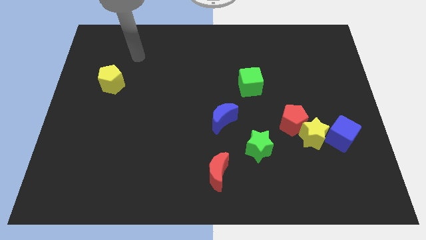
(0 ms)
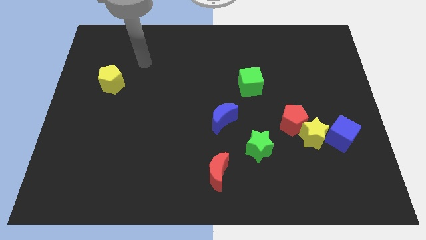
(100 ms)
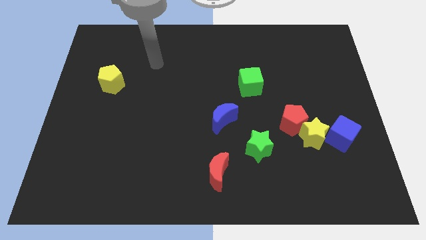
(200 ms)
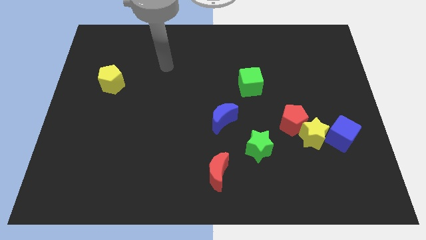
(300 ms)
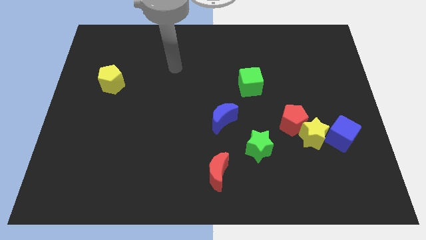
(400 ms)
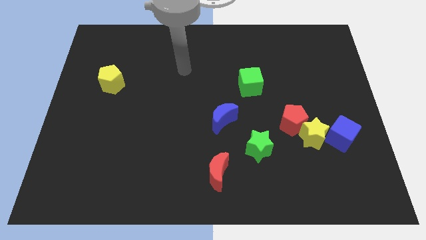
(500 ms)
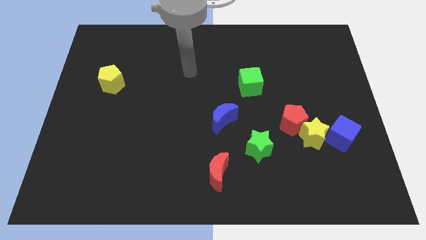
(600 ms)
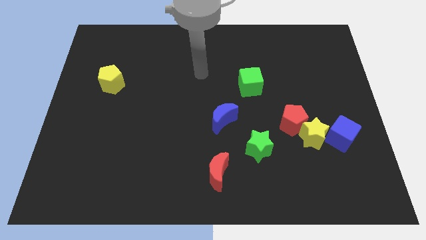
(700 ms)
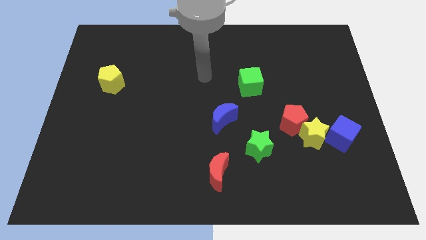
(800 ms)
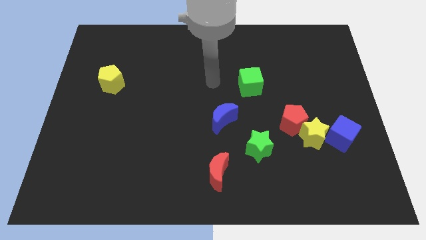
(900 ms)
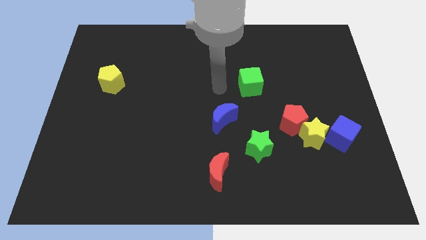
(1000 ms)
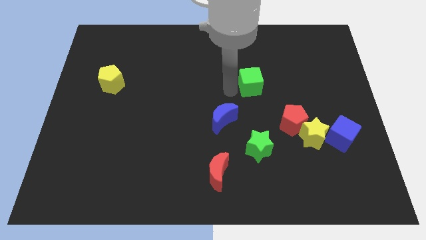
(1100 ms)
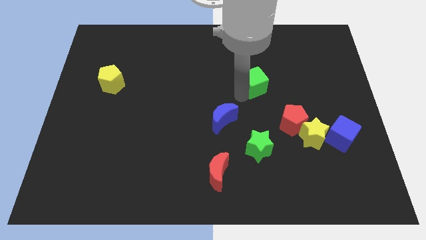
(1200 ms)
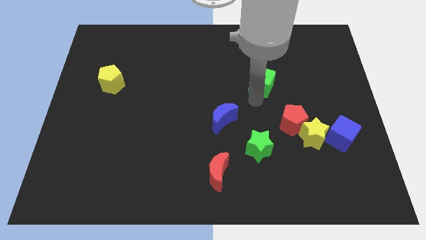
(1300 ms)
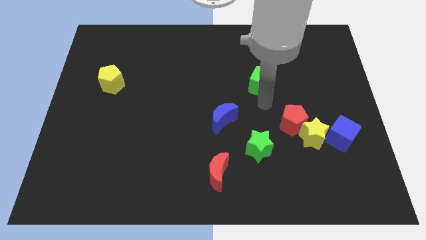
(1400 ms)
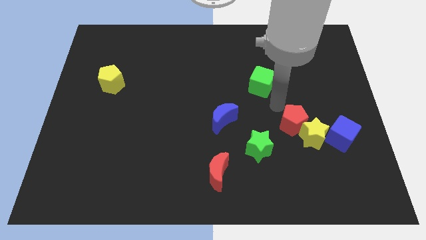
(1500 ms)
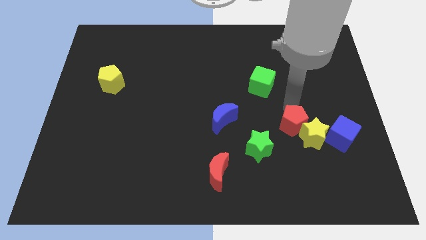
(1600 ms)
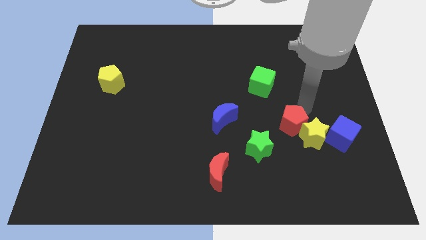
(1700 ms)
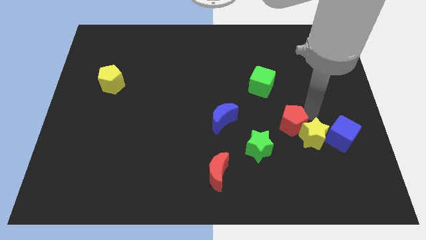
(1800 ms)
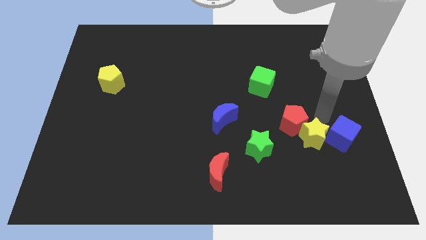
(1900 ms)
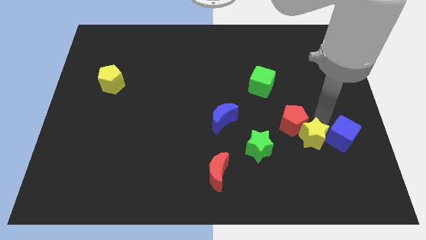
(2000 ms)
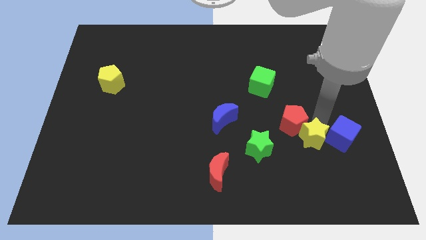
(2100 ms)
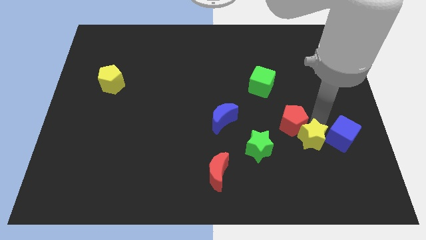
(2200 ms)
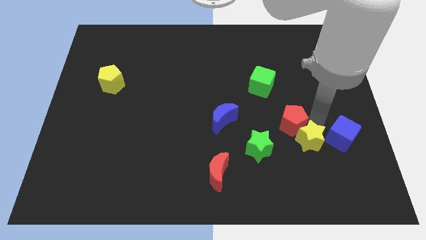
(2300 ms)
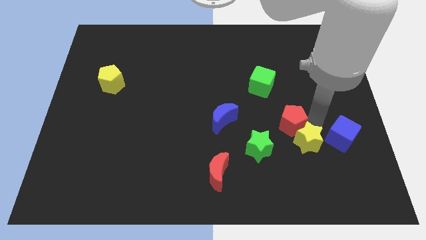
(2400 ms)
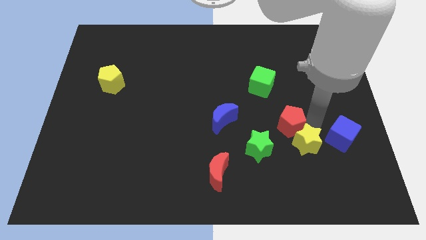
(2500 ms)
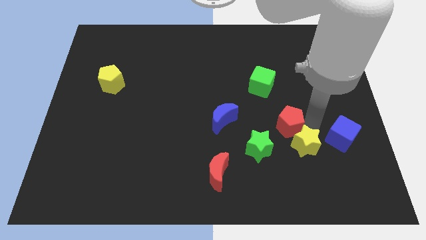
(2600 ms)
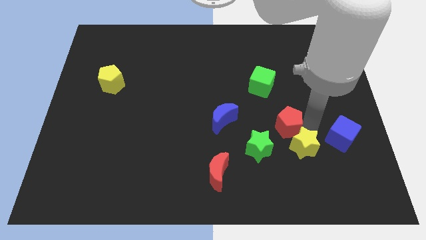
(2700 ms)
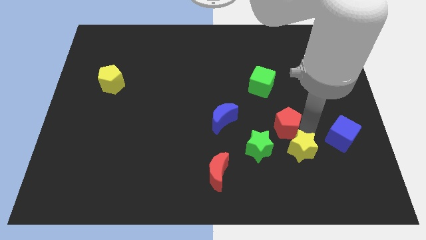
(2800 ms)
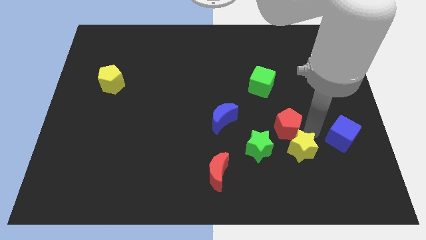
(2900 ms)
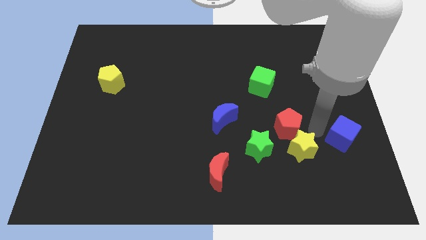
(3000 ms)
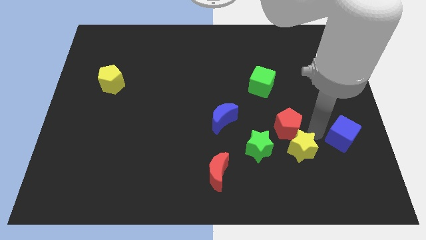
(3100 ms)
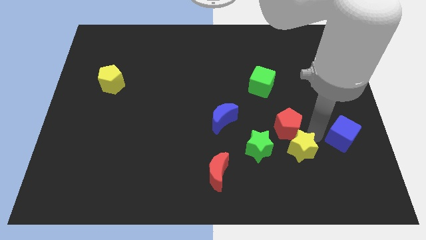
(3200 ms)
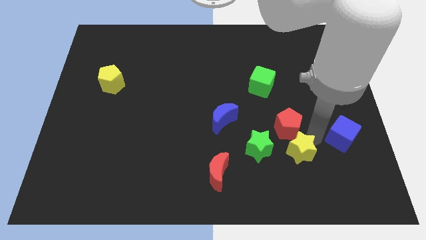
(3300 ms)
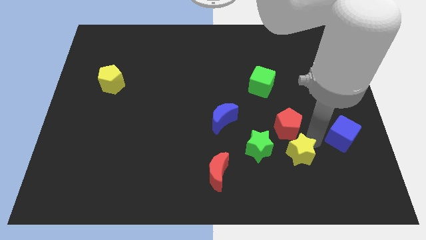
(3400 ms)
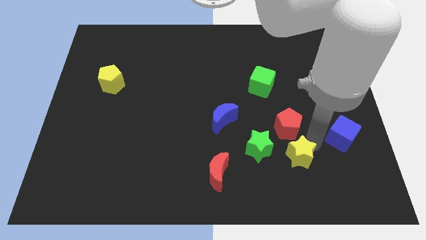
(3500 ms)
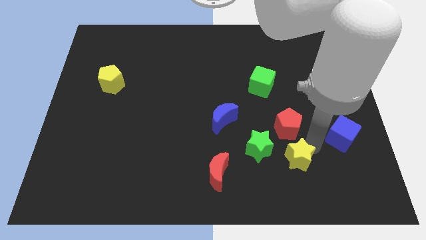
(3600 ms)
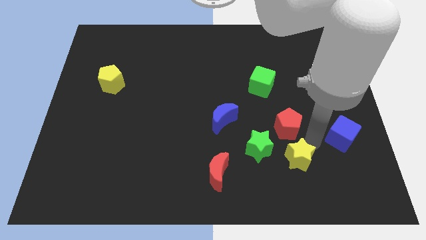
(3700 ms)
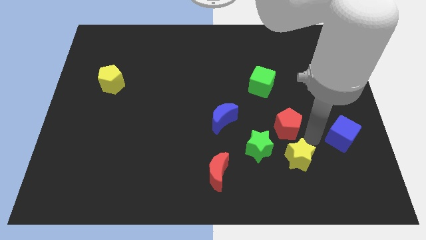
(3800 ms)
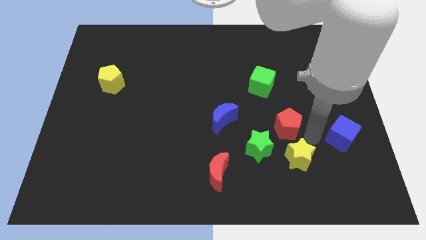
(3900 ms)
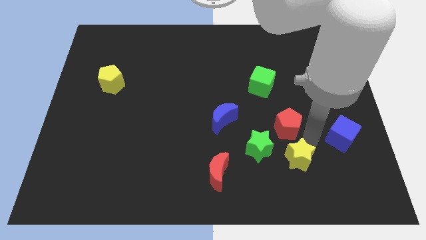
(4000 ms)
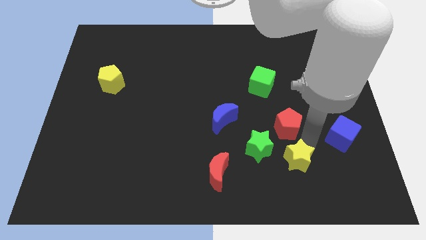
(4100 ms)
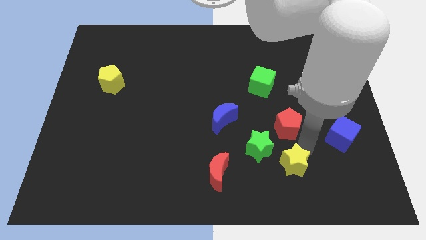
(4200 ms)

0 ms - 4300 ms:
move the yellow star away from the red pentagon and blue cube

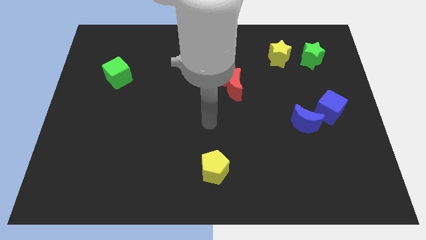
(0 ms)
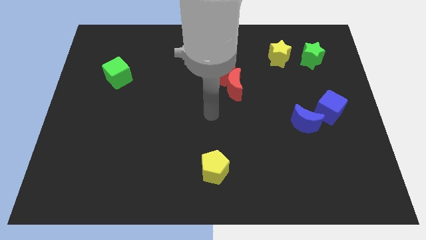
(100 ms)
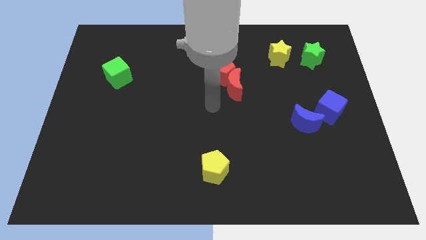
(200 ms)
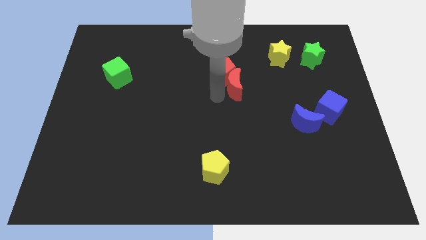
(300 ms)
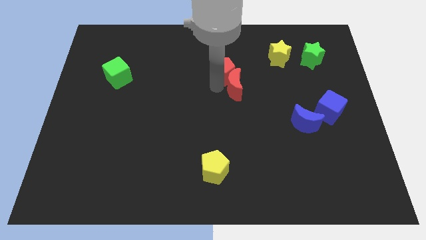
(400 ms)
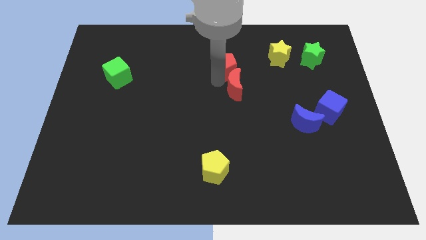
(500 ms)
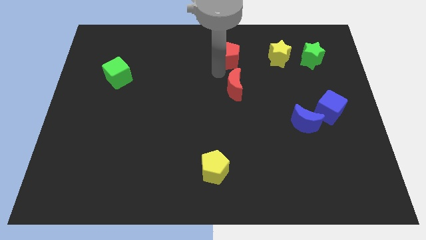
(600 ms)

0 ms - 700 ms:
move the red moon away from the red pentagon

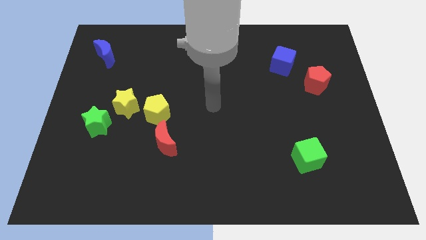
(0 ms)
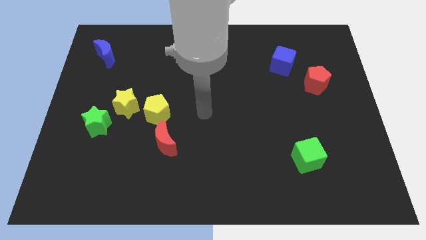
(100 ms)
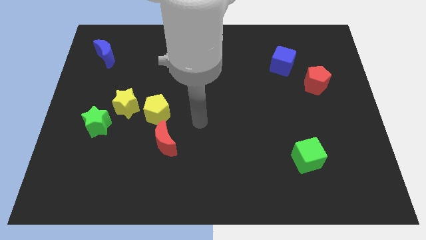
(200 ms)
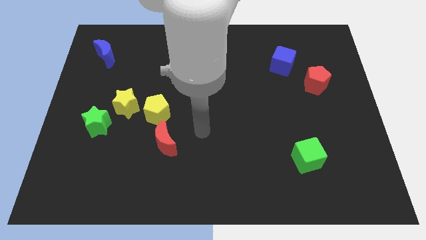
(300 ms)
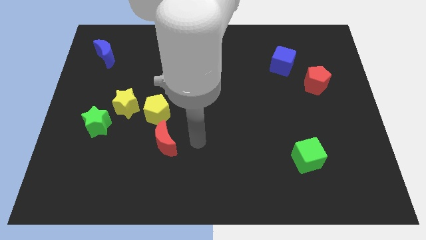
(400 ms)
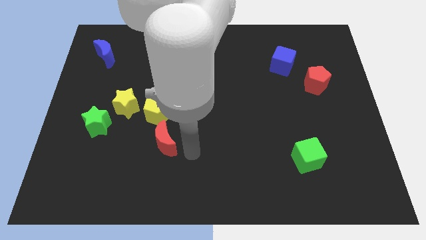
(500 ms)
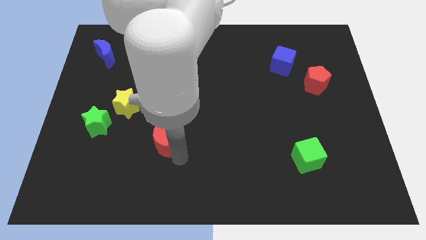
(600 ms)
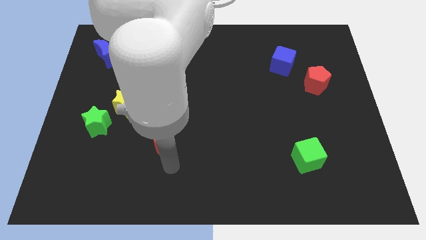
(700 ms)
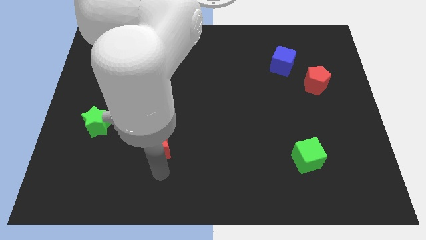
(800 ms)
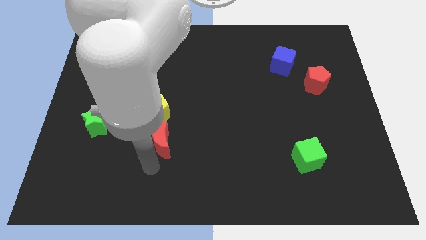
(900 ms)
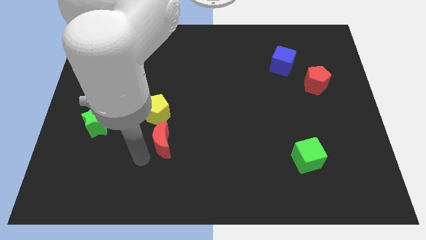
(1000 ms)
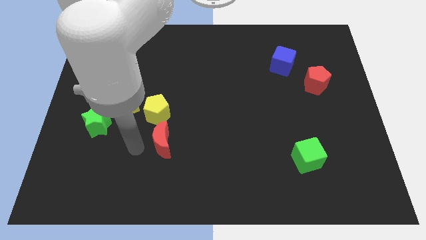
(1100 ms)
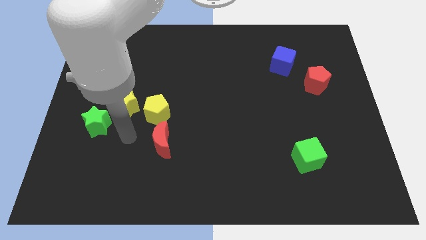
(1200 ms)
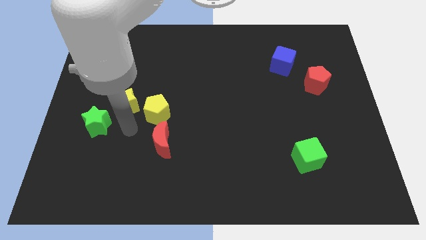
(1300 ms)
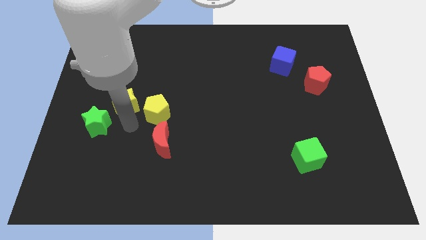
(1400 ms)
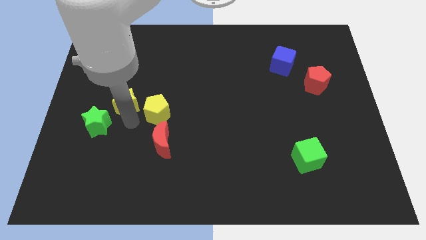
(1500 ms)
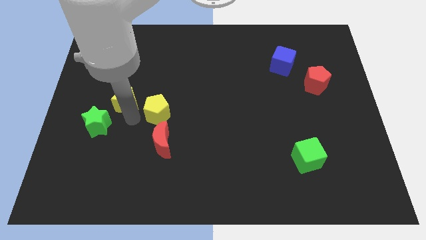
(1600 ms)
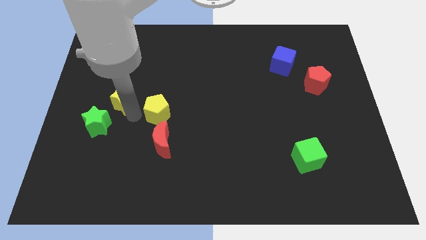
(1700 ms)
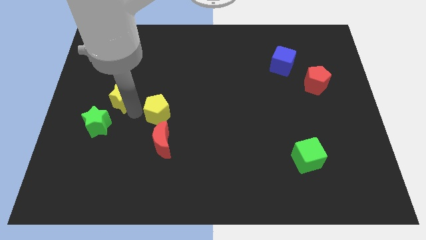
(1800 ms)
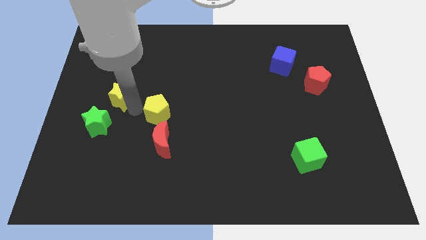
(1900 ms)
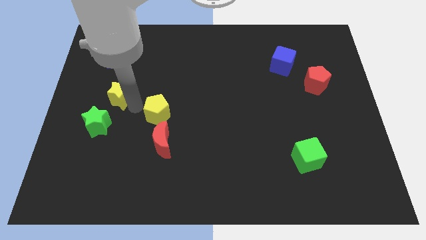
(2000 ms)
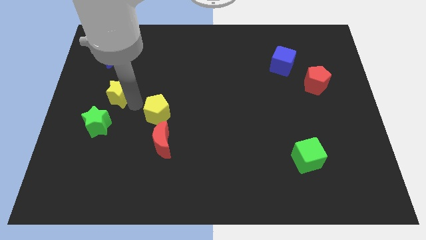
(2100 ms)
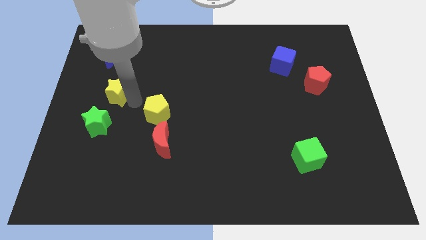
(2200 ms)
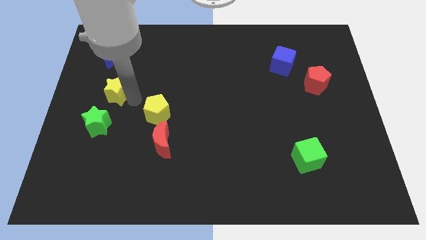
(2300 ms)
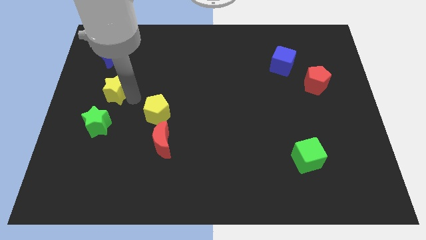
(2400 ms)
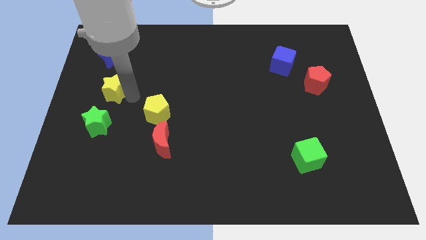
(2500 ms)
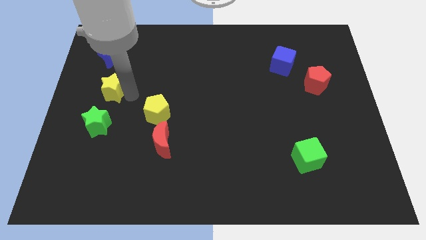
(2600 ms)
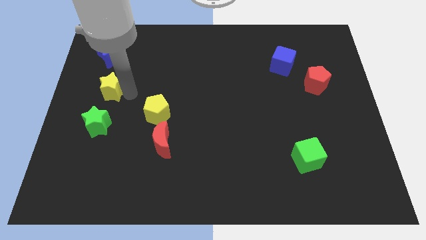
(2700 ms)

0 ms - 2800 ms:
move the yellow star away from the yellow pentagon and green star

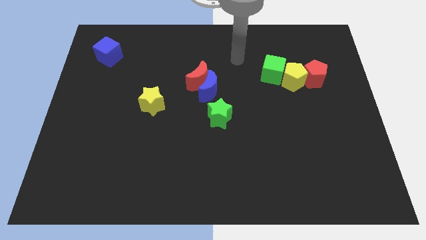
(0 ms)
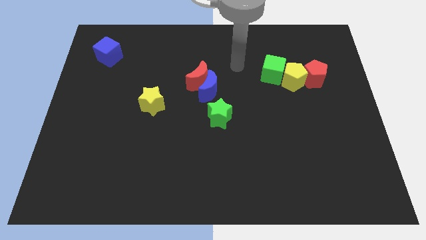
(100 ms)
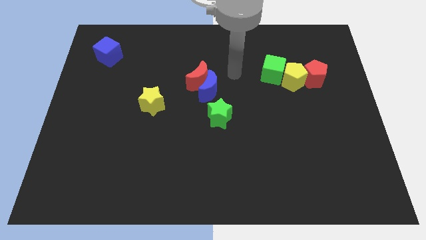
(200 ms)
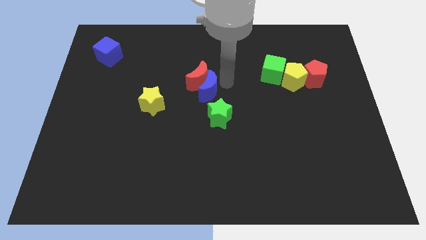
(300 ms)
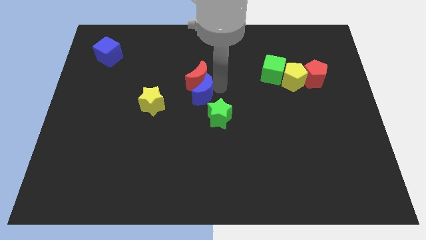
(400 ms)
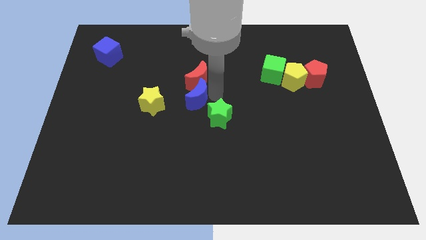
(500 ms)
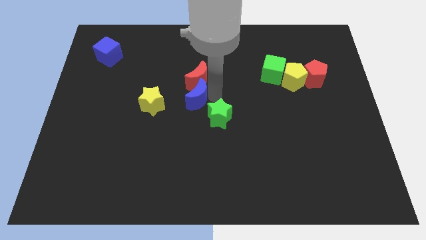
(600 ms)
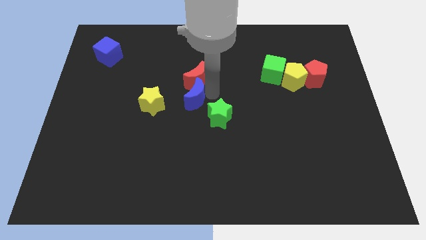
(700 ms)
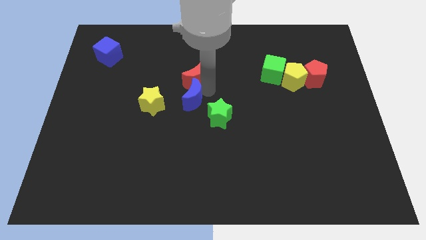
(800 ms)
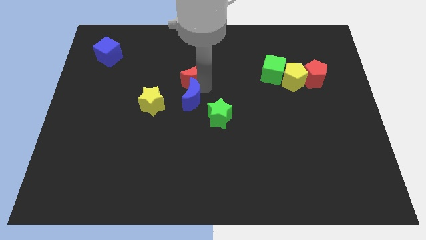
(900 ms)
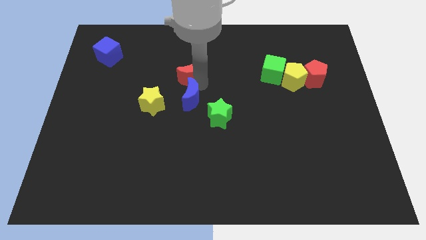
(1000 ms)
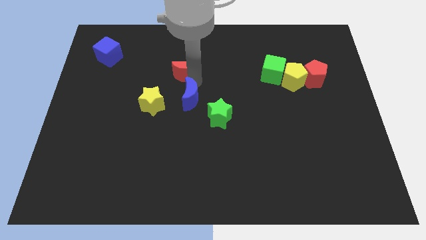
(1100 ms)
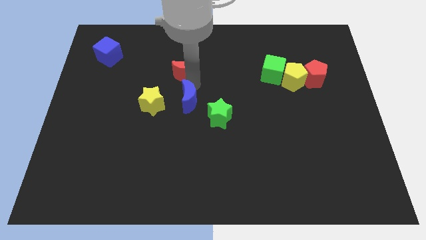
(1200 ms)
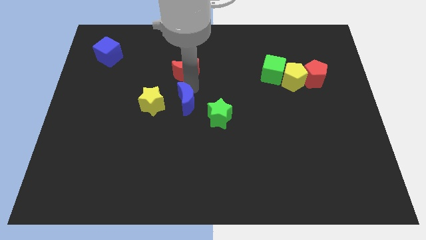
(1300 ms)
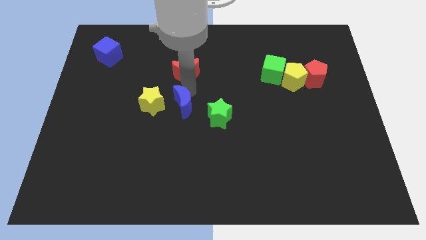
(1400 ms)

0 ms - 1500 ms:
pull the red moon apart from the blue moon

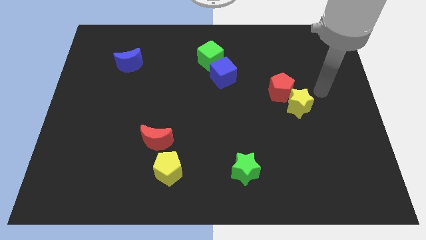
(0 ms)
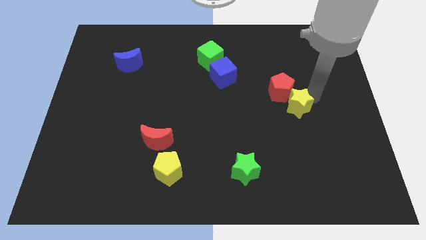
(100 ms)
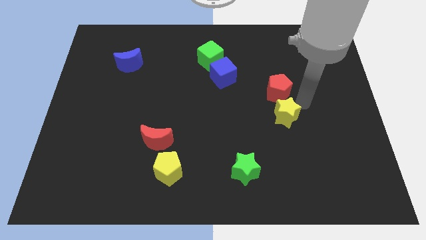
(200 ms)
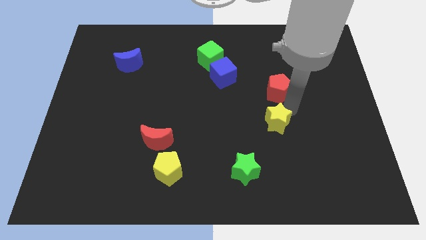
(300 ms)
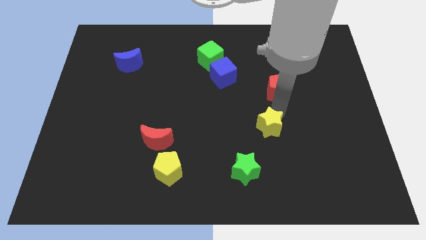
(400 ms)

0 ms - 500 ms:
pull the red pentagon apart from the yellow star
